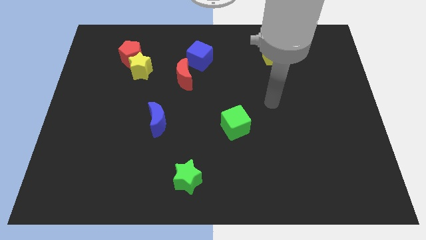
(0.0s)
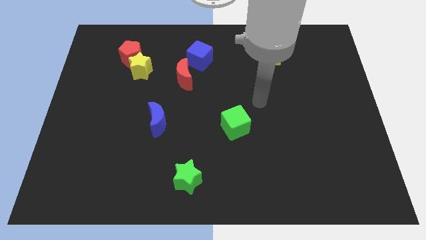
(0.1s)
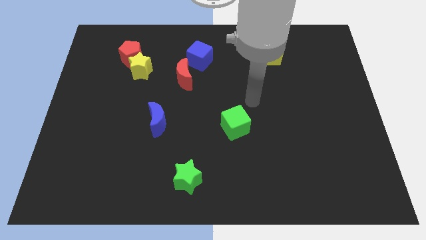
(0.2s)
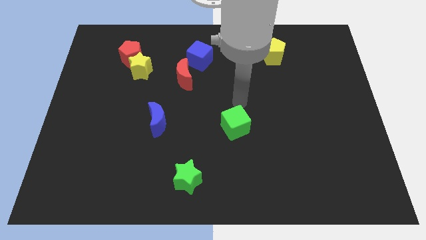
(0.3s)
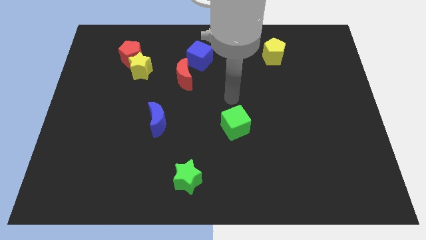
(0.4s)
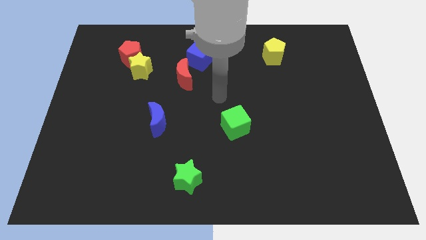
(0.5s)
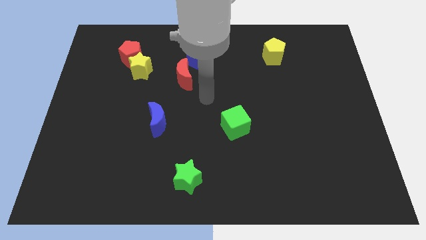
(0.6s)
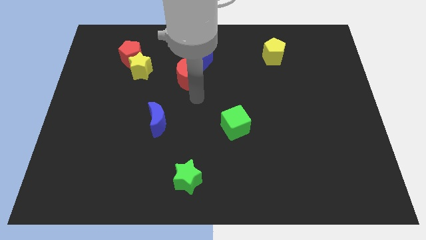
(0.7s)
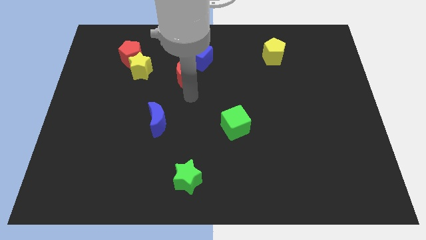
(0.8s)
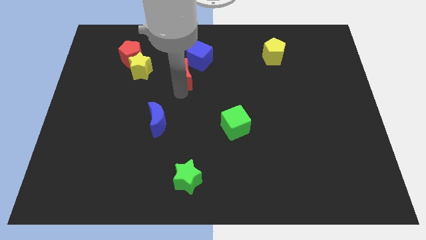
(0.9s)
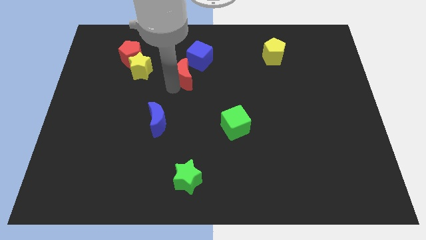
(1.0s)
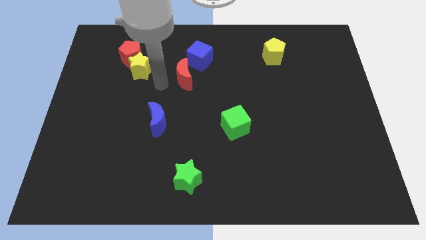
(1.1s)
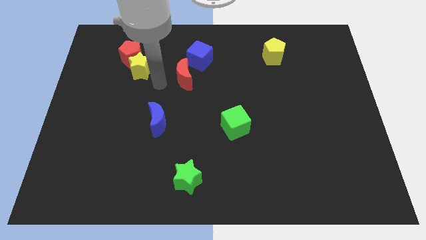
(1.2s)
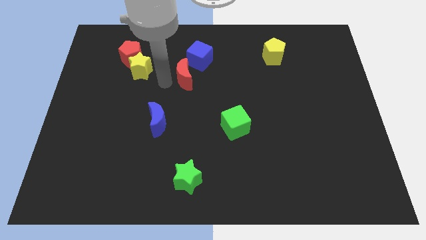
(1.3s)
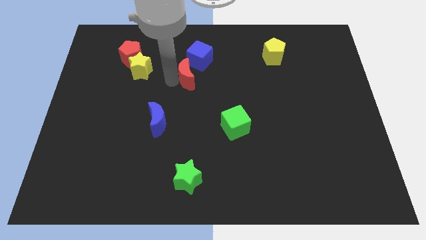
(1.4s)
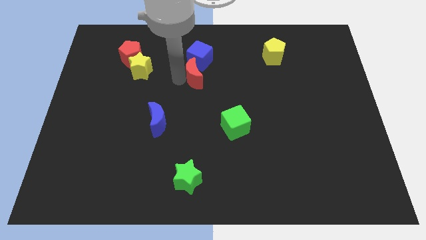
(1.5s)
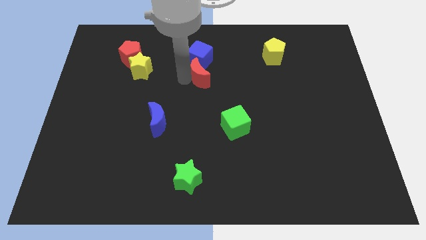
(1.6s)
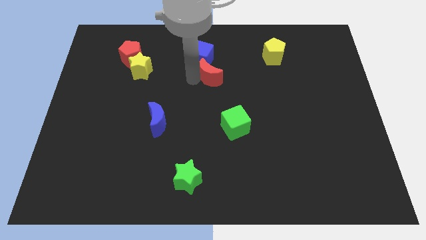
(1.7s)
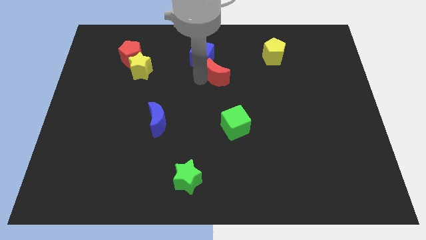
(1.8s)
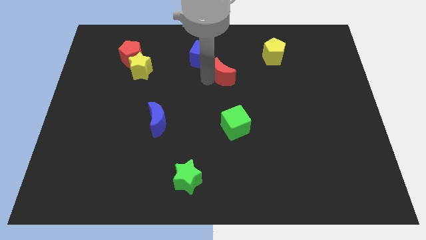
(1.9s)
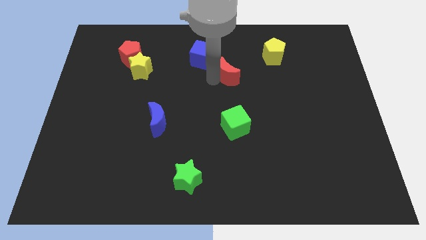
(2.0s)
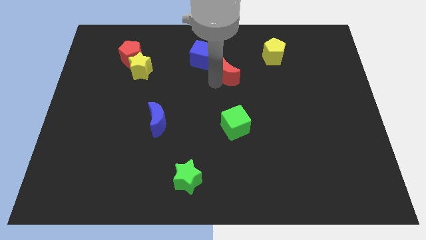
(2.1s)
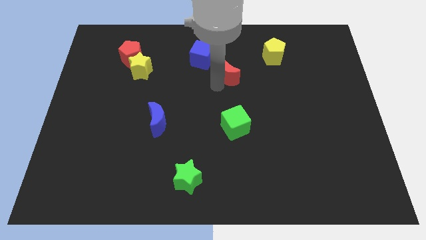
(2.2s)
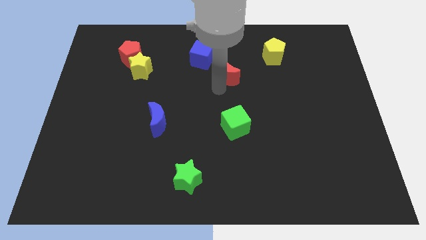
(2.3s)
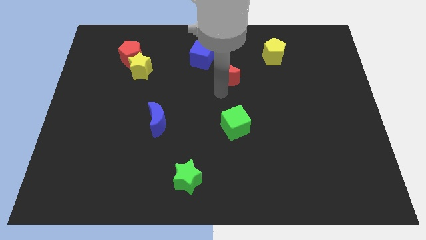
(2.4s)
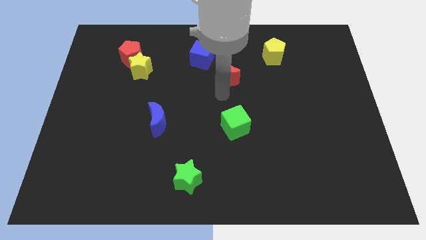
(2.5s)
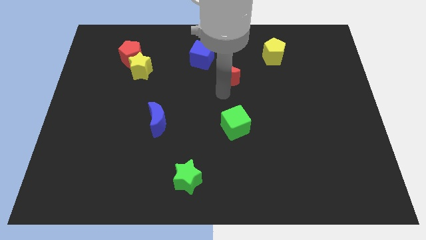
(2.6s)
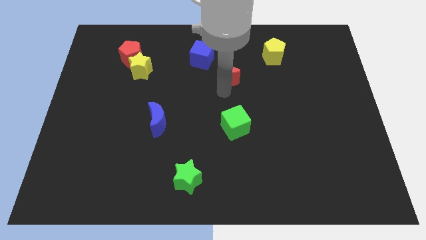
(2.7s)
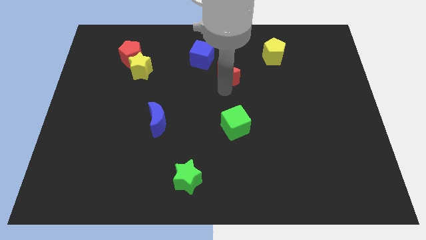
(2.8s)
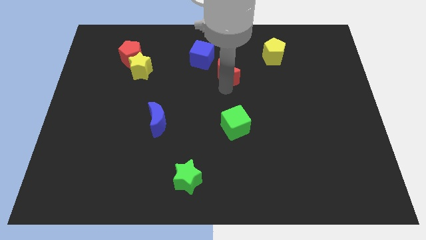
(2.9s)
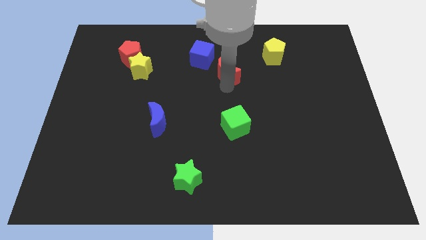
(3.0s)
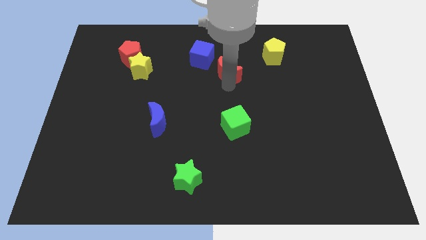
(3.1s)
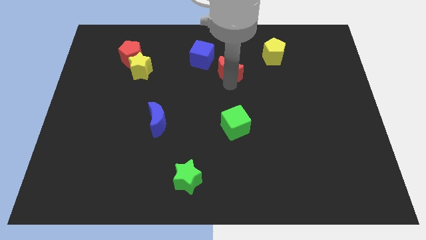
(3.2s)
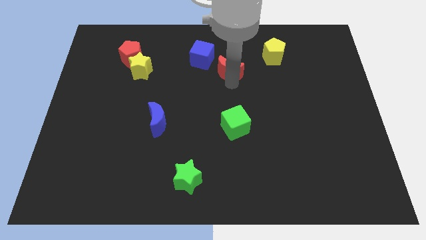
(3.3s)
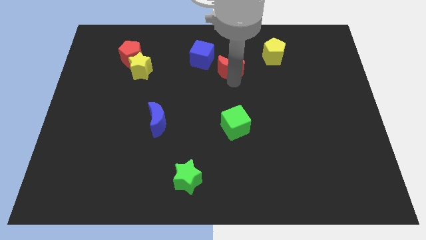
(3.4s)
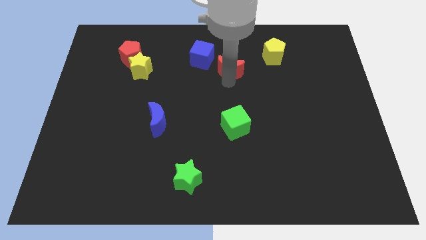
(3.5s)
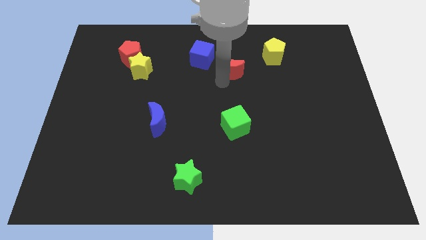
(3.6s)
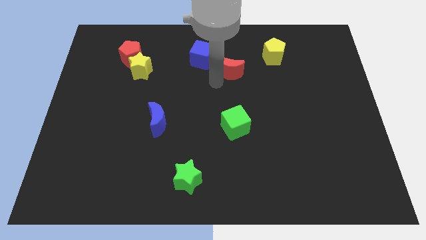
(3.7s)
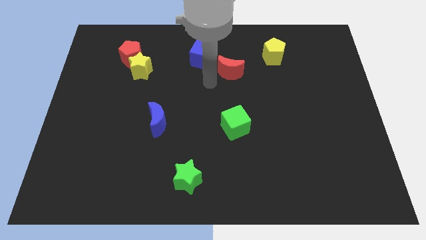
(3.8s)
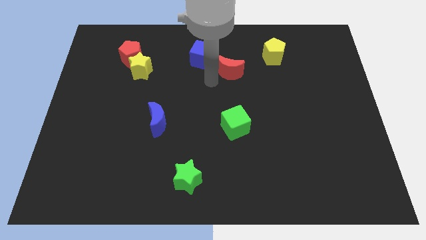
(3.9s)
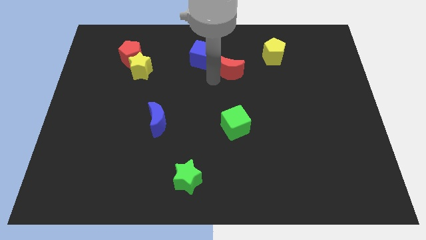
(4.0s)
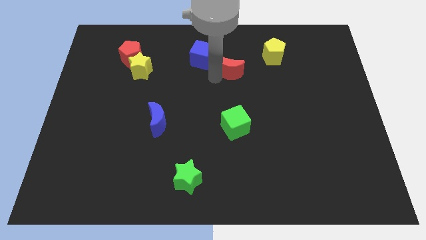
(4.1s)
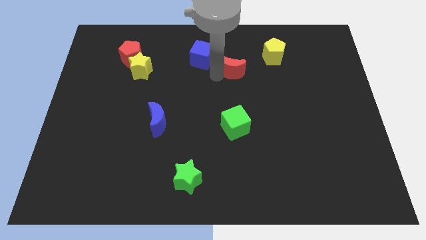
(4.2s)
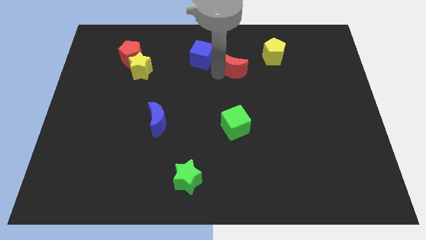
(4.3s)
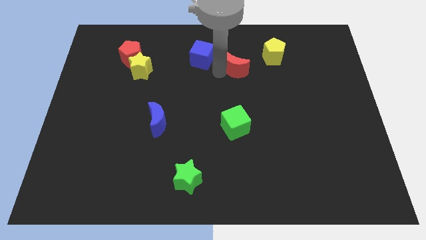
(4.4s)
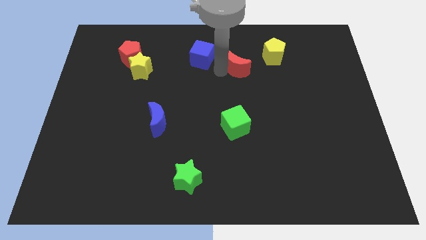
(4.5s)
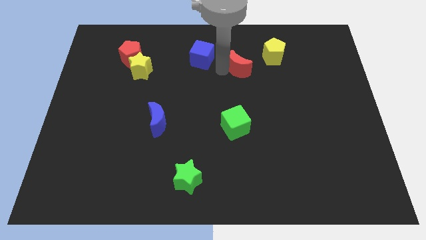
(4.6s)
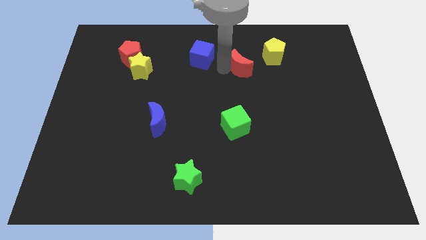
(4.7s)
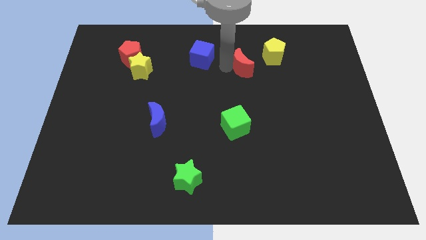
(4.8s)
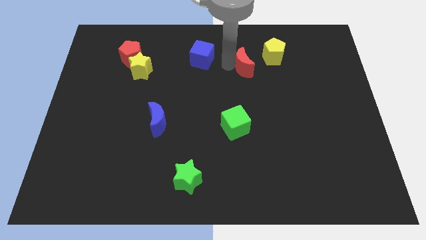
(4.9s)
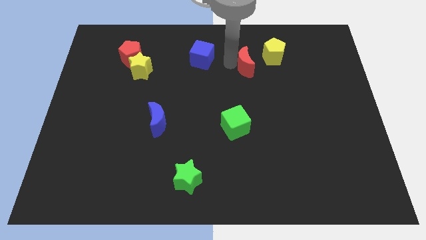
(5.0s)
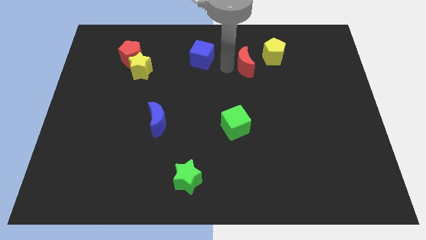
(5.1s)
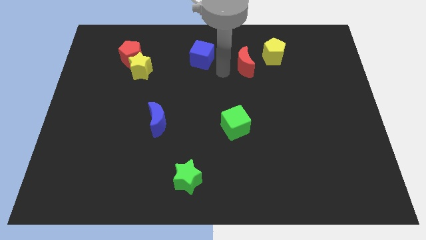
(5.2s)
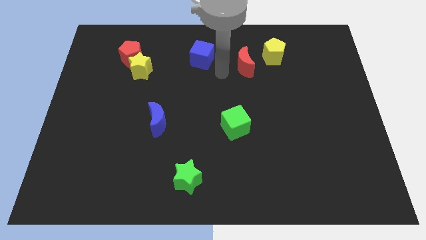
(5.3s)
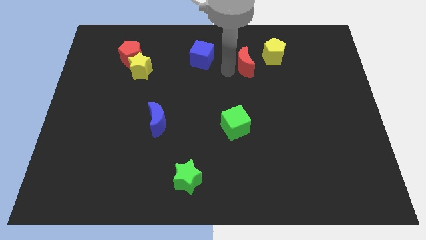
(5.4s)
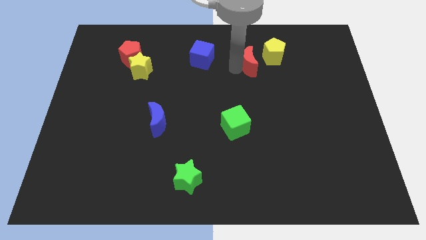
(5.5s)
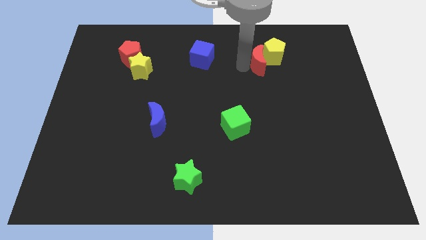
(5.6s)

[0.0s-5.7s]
slide the red moon close to the yellow pentagon

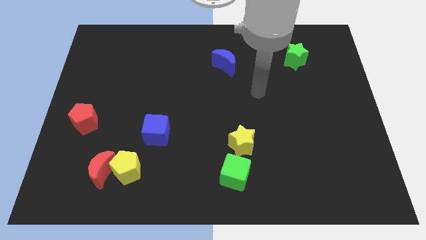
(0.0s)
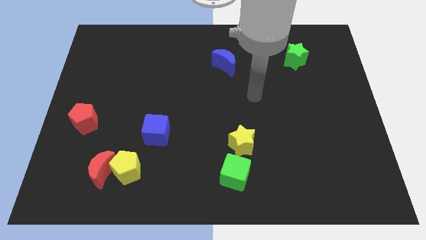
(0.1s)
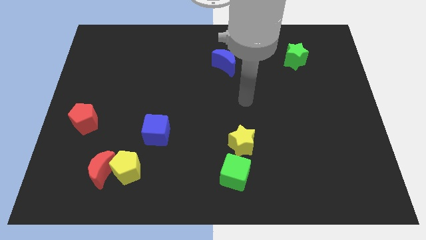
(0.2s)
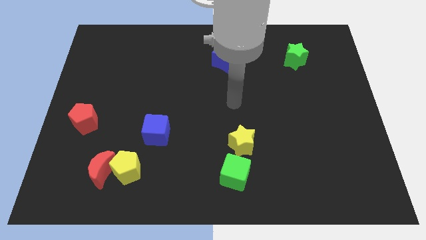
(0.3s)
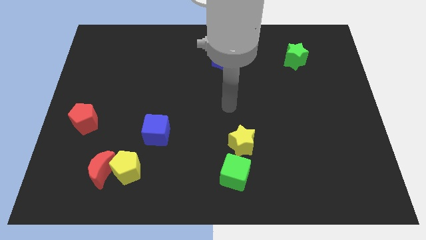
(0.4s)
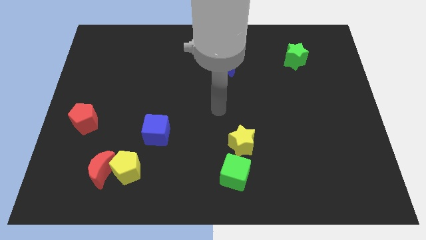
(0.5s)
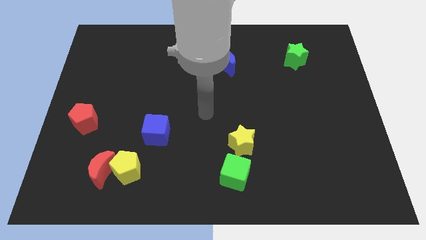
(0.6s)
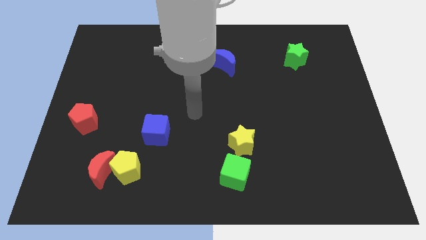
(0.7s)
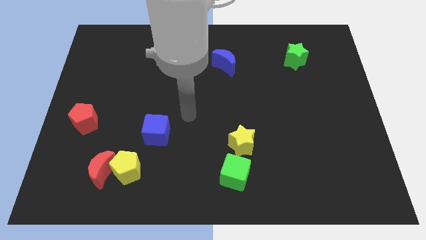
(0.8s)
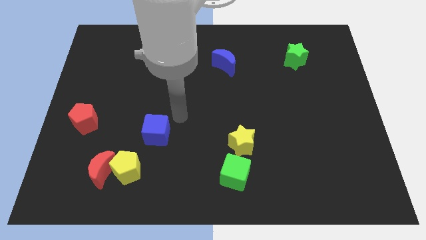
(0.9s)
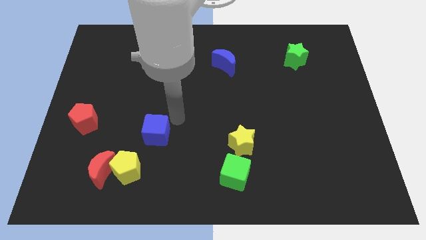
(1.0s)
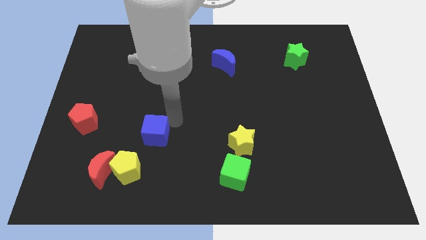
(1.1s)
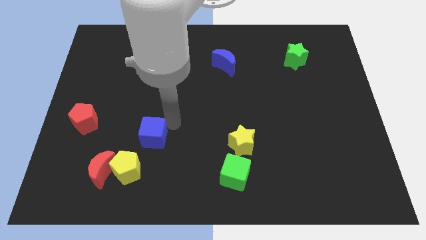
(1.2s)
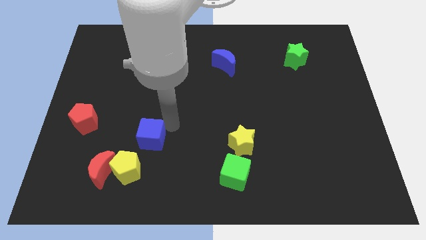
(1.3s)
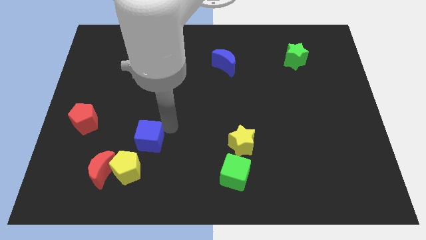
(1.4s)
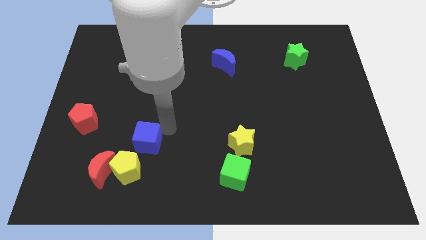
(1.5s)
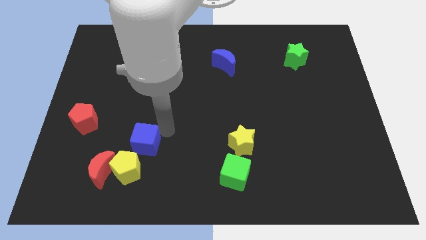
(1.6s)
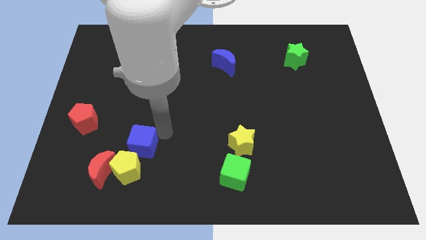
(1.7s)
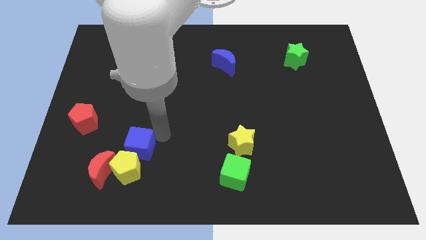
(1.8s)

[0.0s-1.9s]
slide the blue cube next to the yellow pentagon
